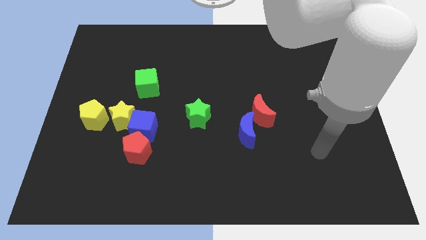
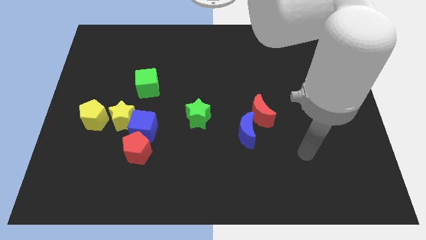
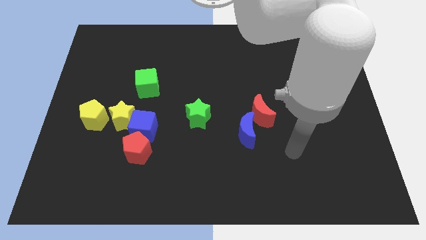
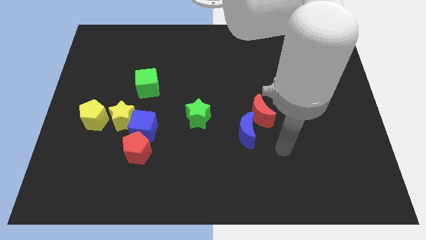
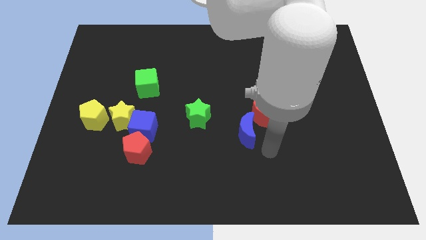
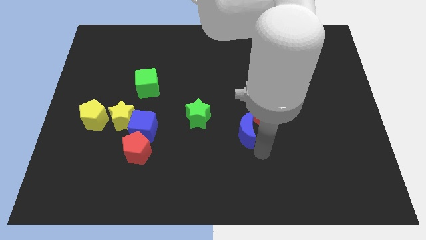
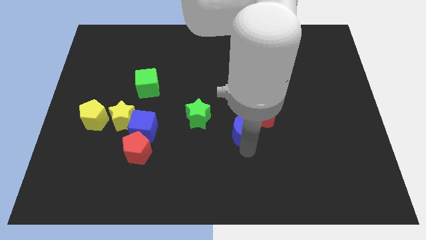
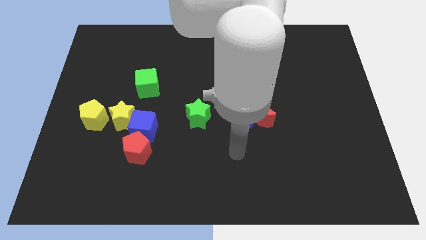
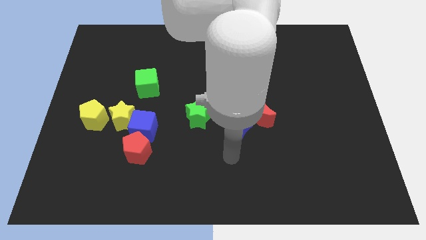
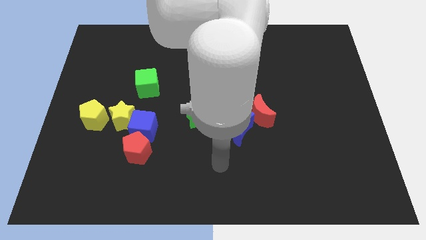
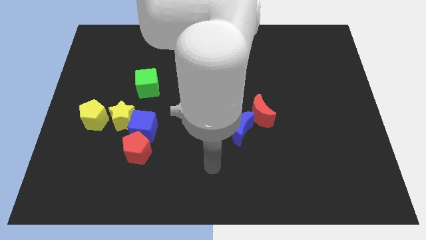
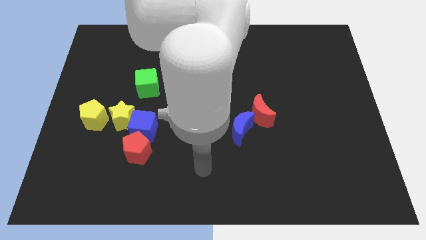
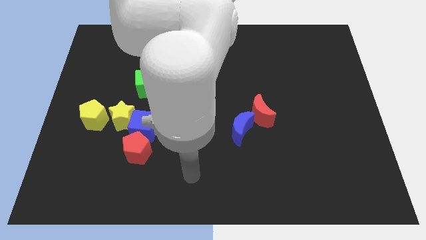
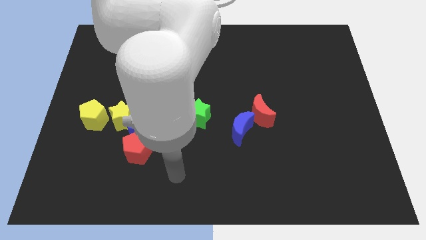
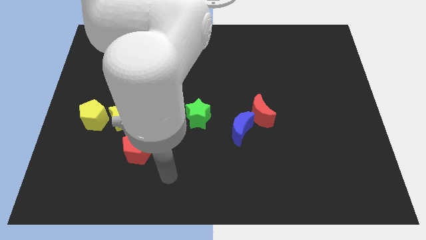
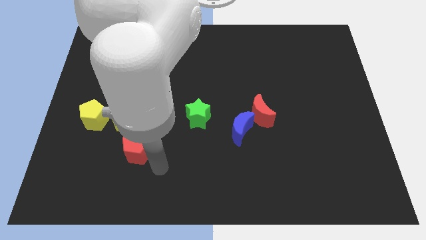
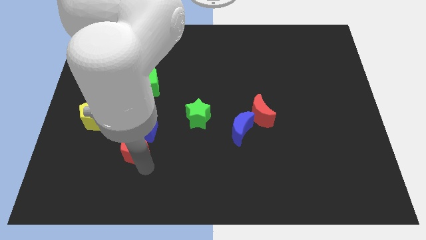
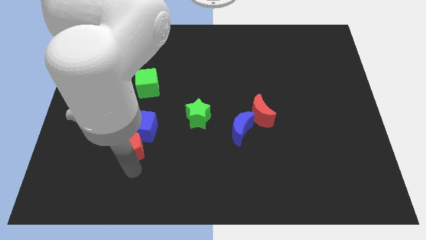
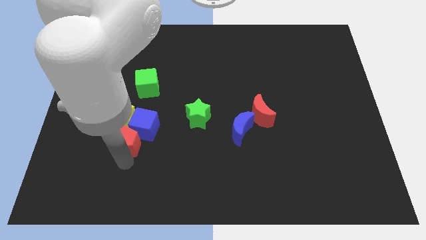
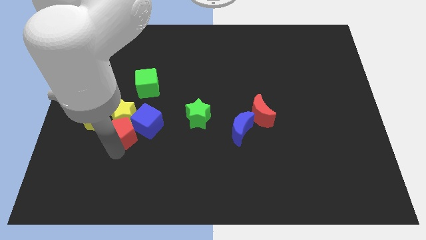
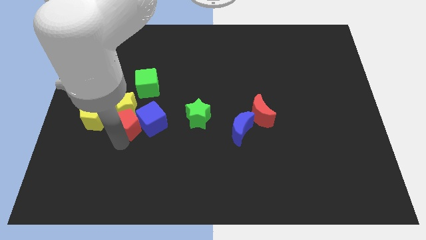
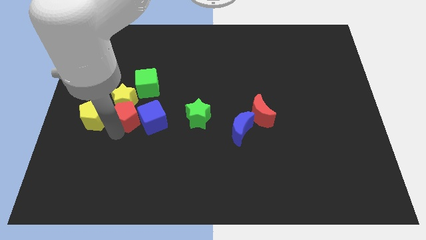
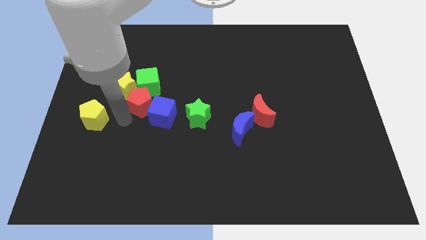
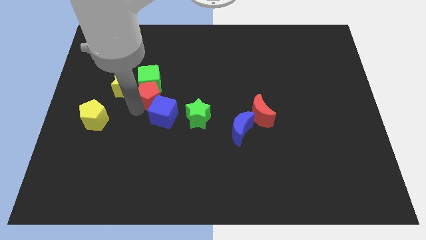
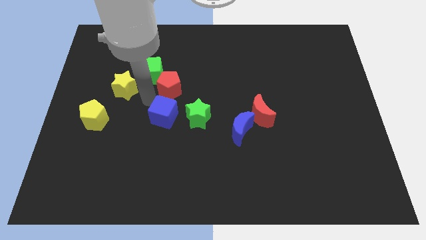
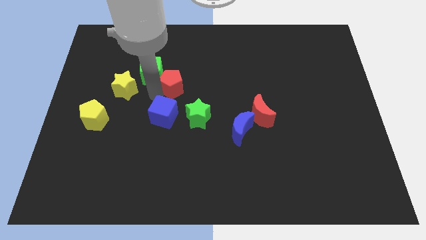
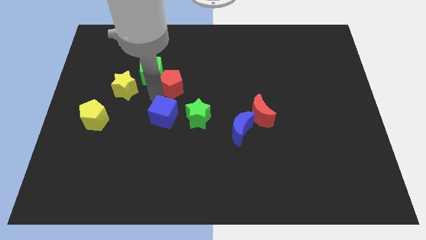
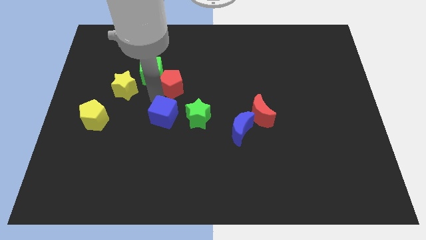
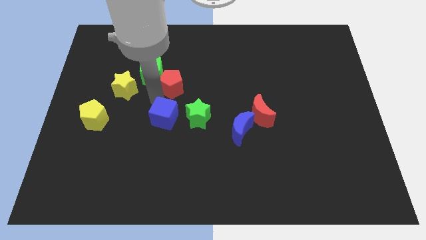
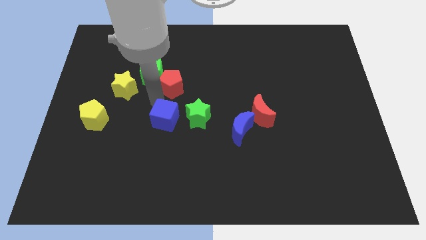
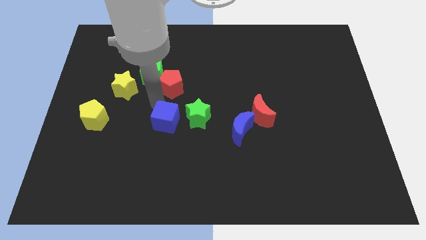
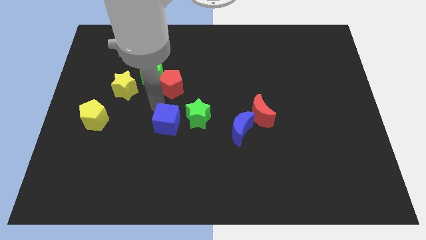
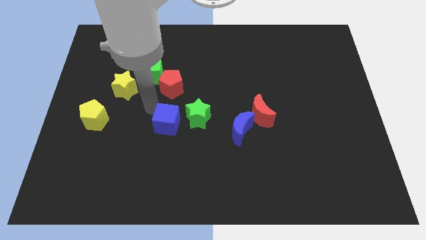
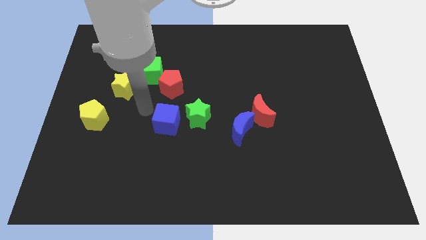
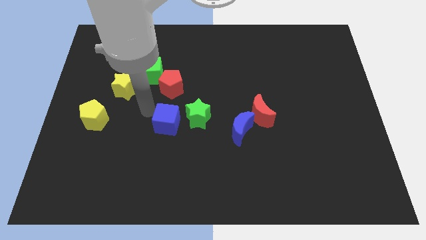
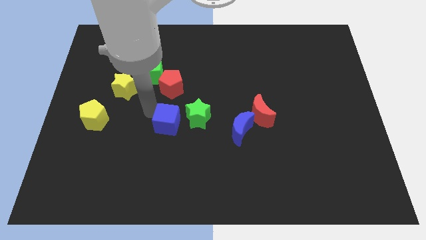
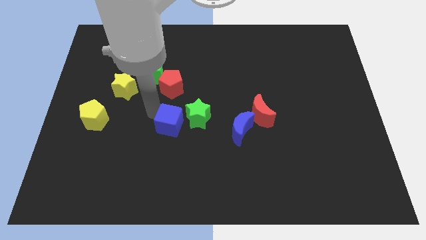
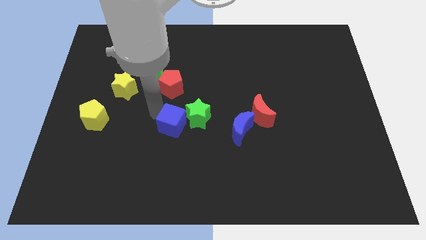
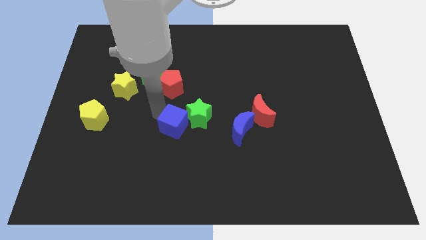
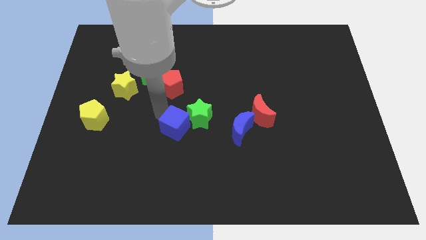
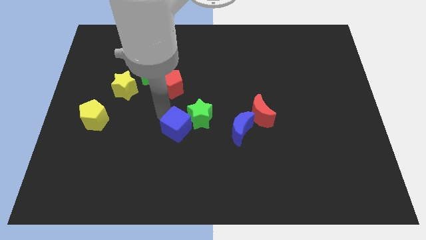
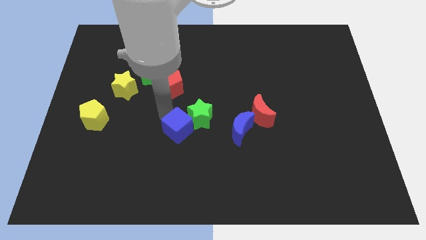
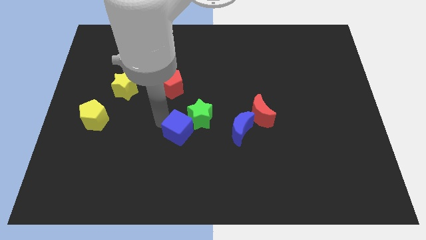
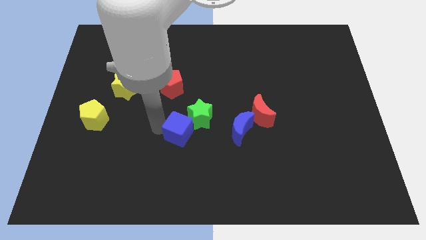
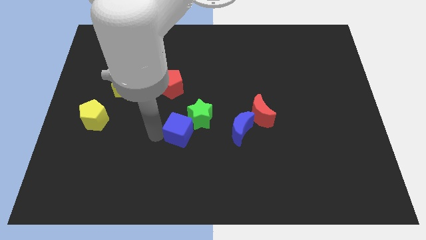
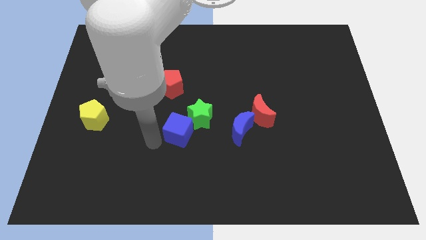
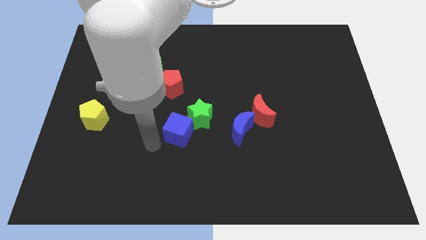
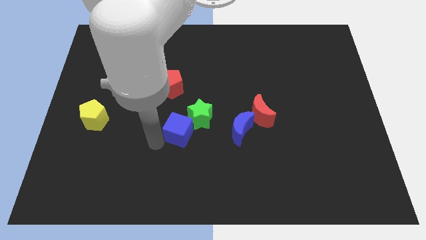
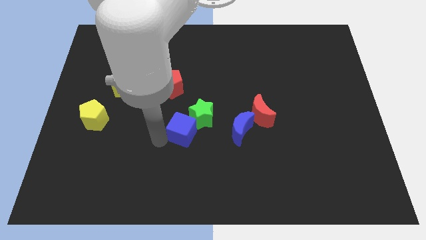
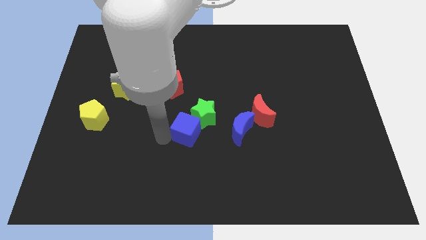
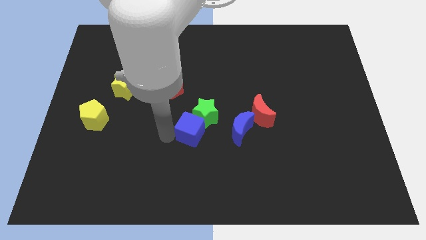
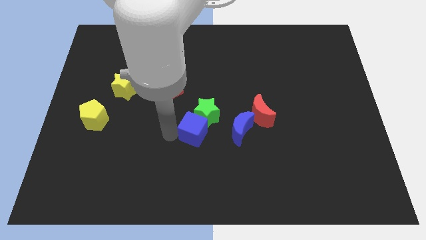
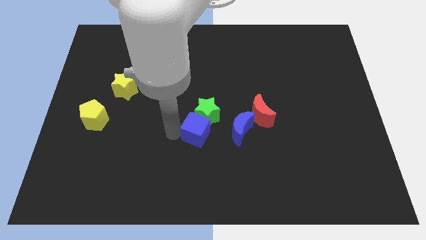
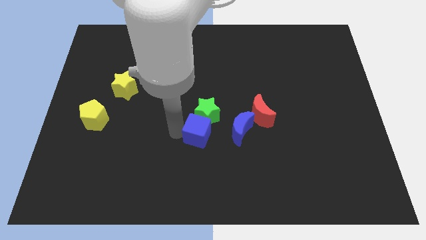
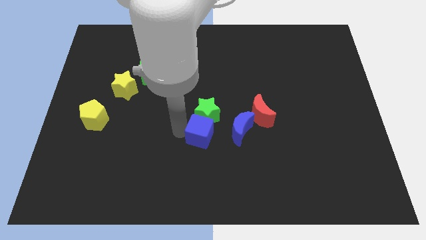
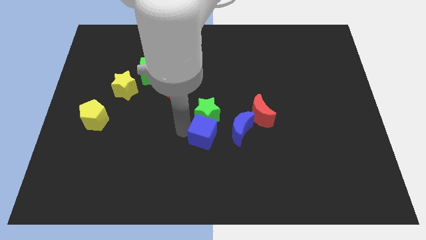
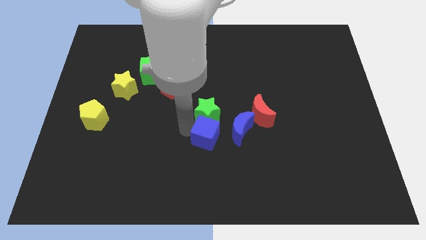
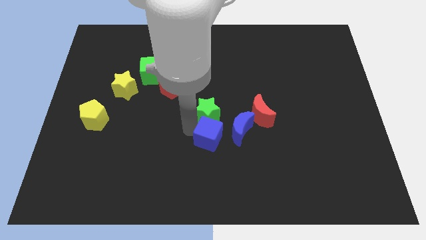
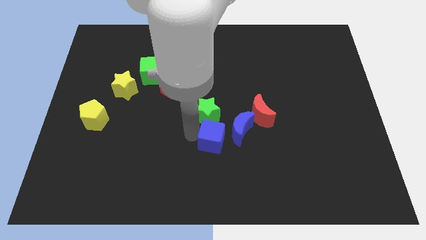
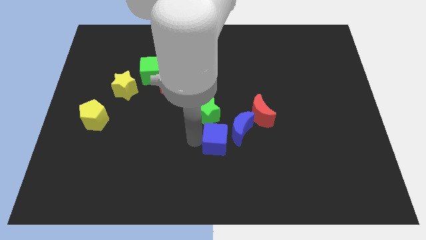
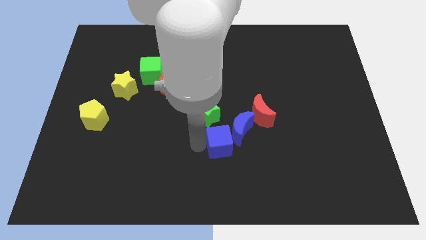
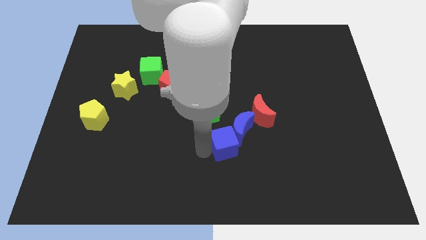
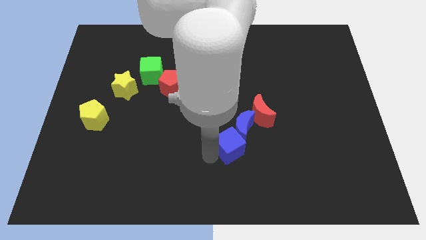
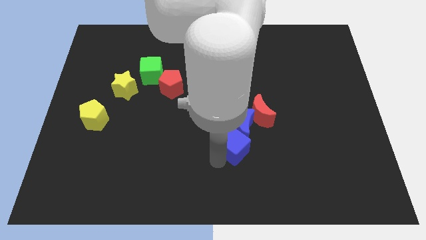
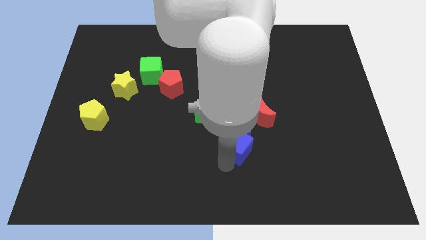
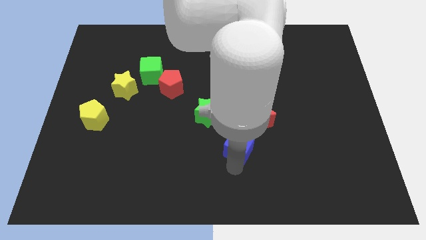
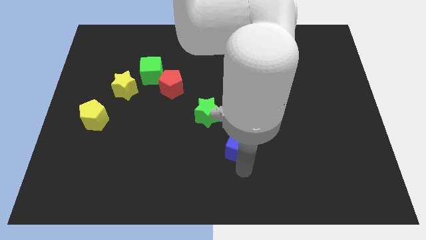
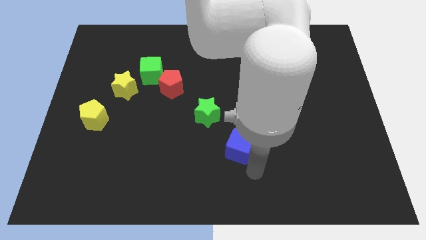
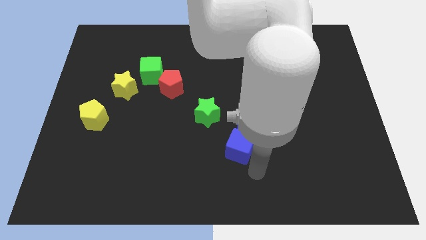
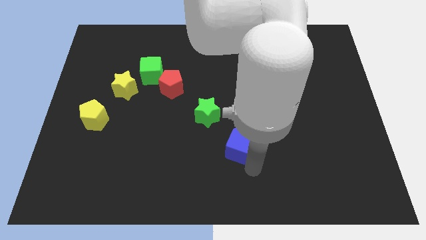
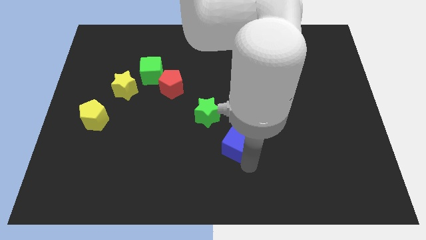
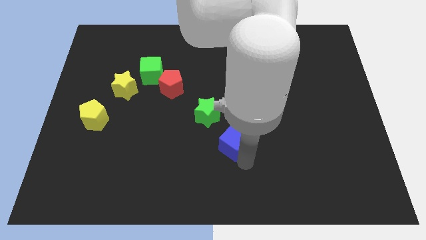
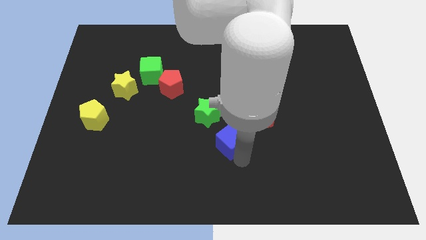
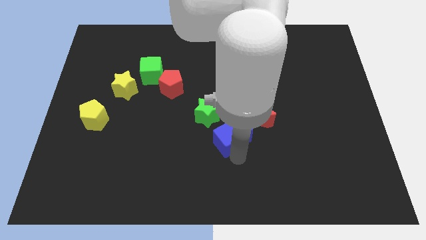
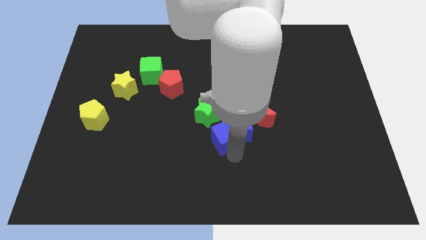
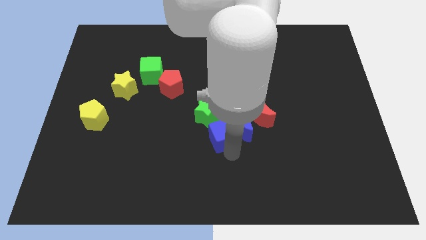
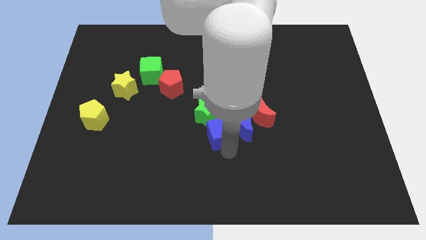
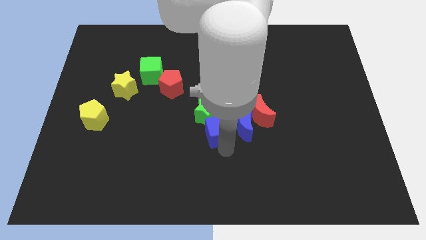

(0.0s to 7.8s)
put the blue cube just left of the red moon
